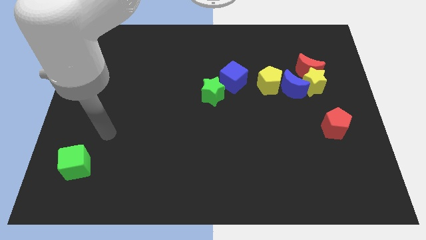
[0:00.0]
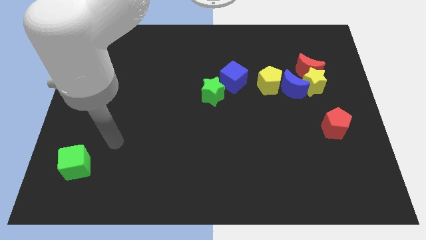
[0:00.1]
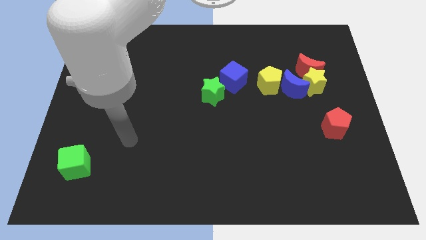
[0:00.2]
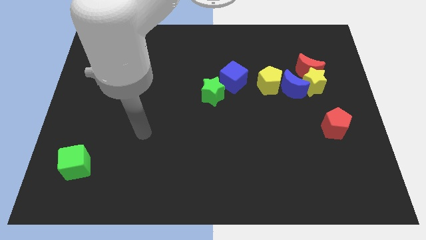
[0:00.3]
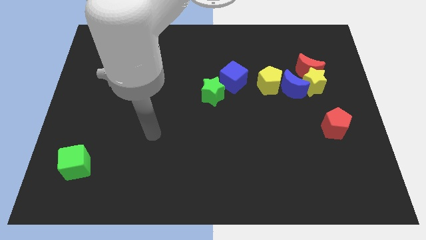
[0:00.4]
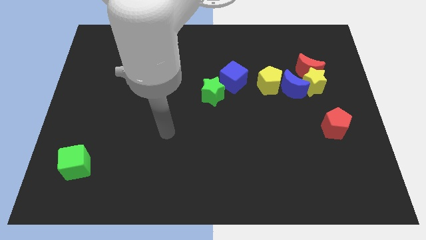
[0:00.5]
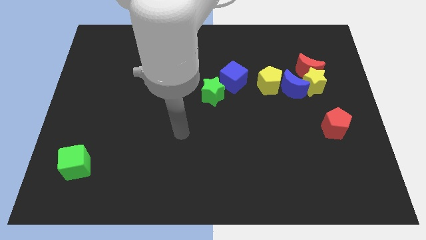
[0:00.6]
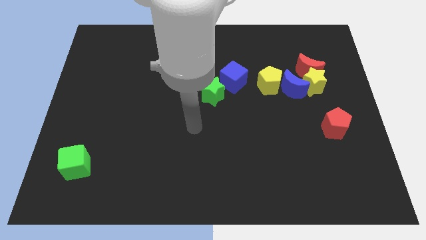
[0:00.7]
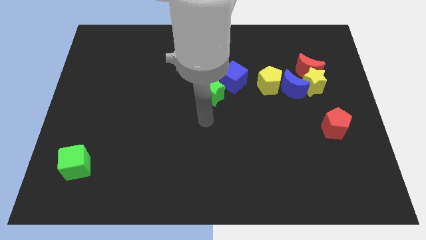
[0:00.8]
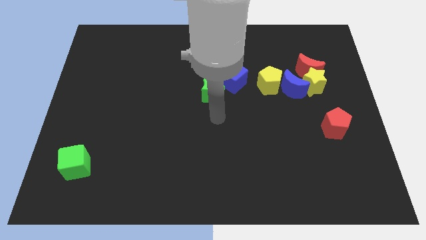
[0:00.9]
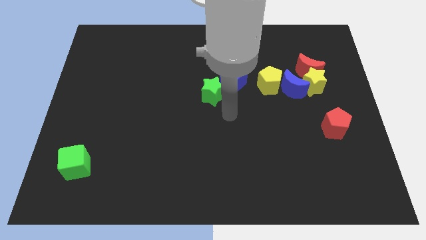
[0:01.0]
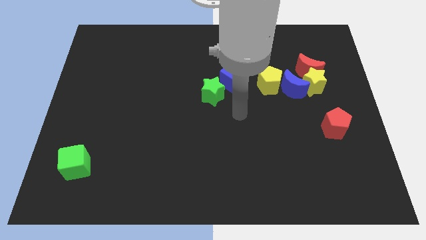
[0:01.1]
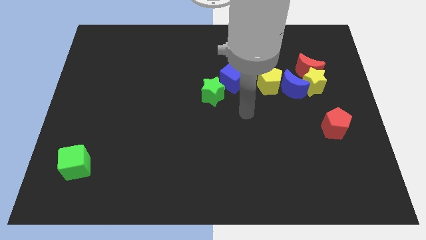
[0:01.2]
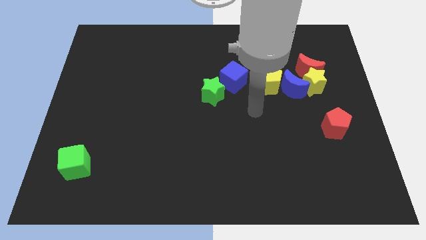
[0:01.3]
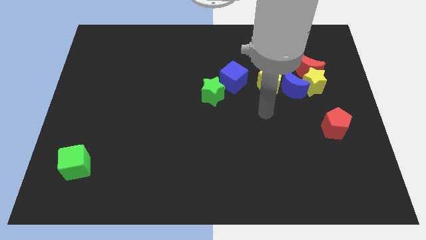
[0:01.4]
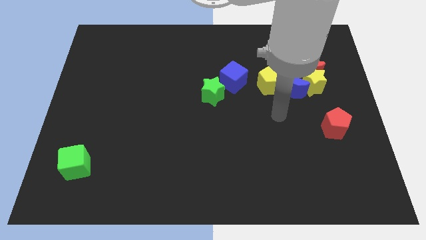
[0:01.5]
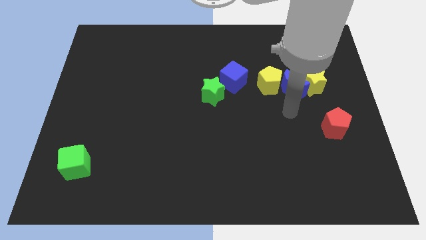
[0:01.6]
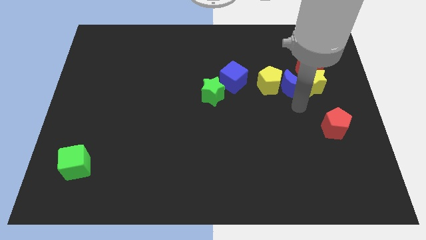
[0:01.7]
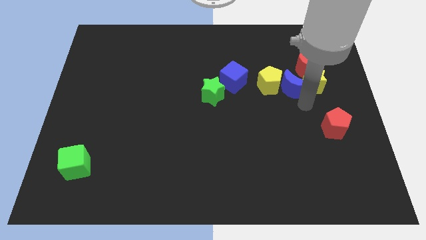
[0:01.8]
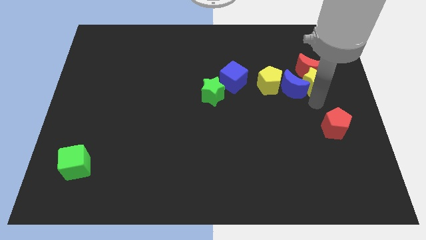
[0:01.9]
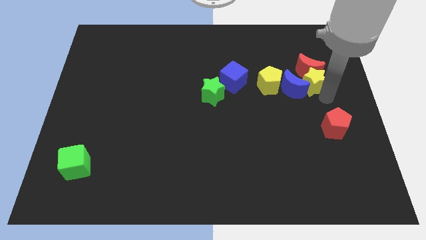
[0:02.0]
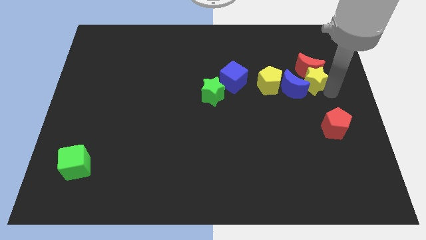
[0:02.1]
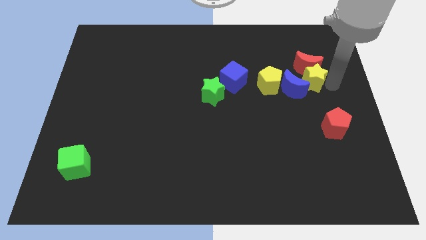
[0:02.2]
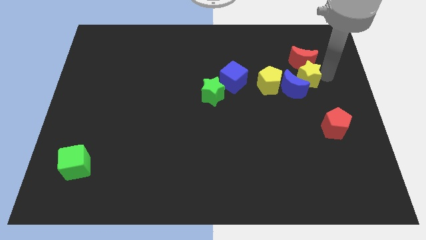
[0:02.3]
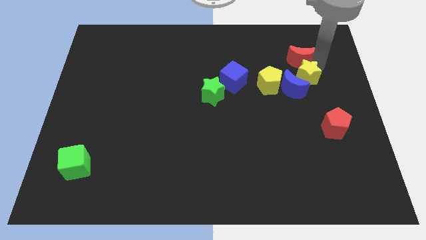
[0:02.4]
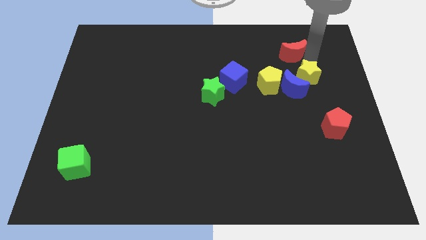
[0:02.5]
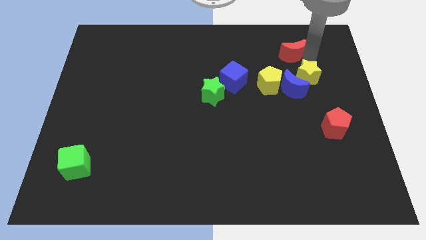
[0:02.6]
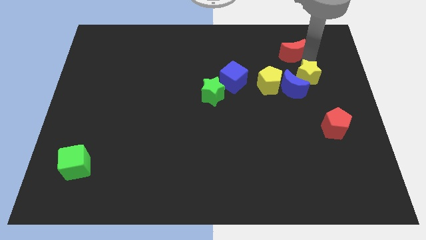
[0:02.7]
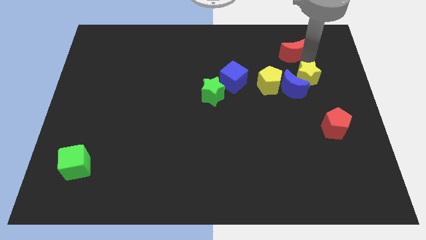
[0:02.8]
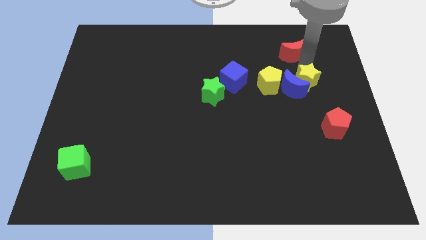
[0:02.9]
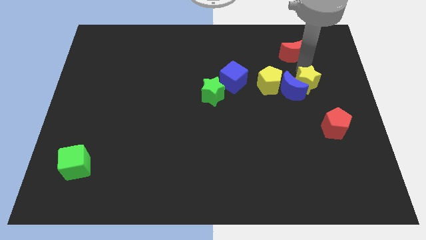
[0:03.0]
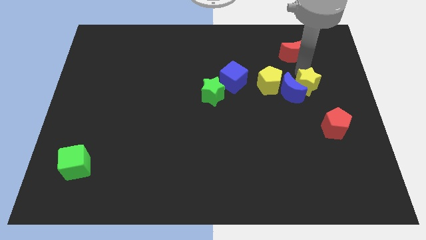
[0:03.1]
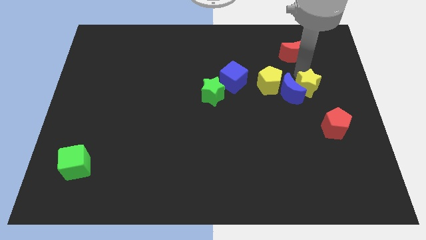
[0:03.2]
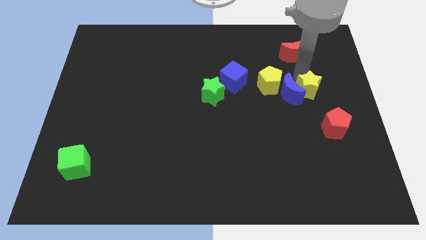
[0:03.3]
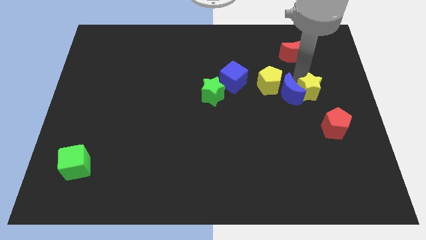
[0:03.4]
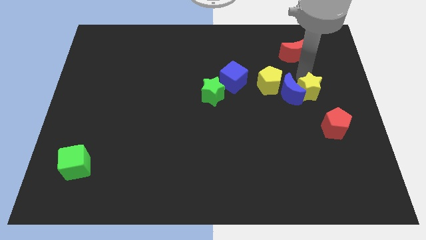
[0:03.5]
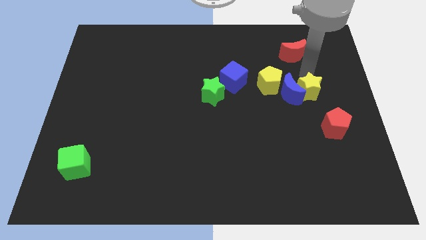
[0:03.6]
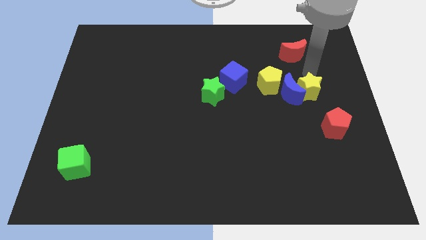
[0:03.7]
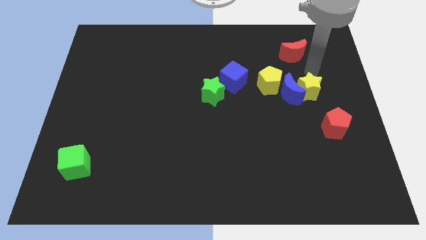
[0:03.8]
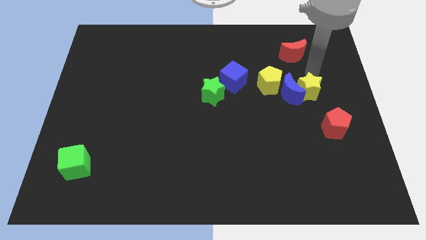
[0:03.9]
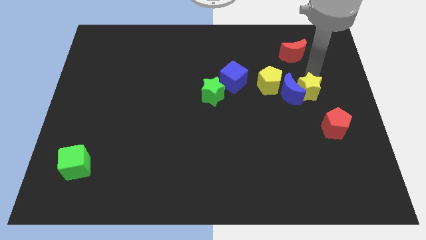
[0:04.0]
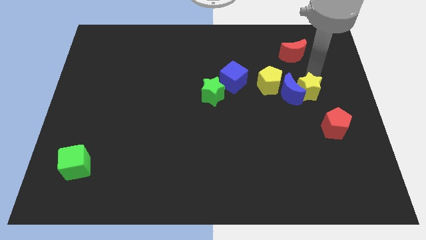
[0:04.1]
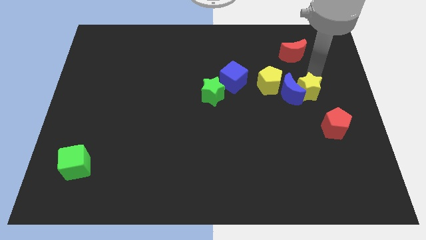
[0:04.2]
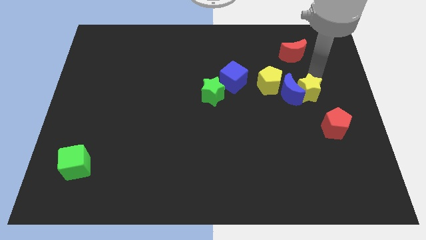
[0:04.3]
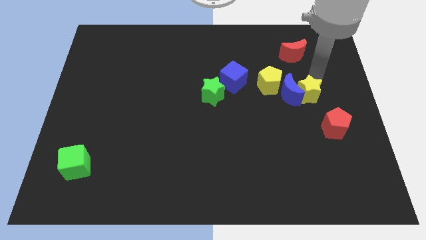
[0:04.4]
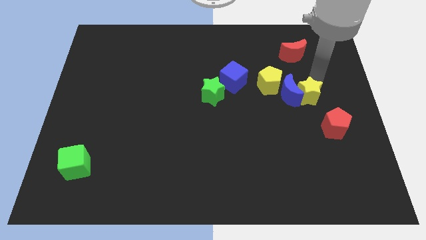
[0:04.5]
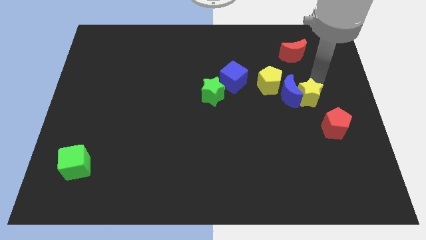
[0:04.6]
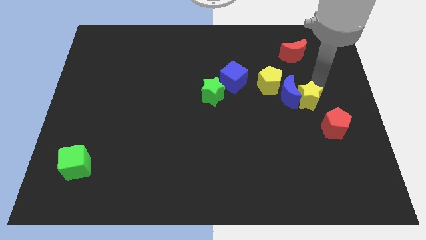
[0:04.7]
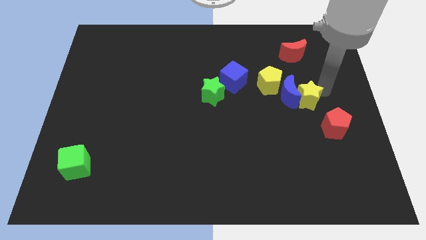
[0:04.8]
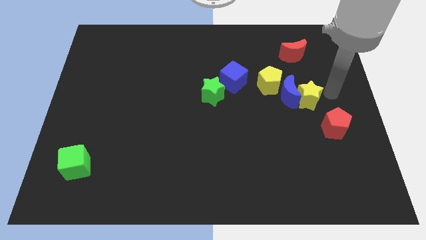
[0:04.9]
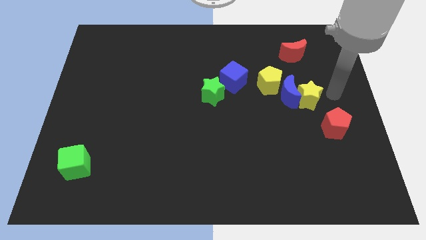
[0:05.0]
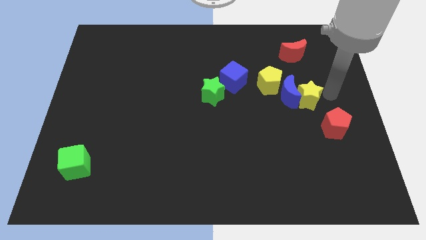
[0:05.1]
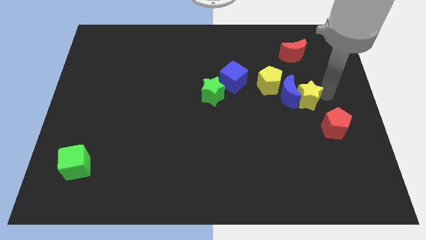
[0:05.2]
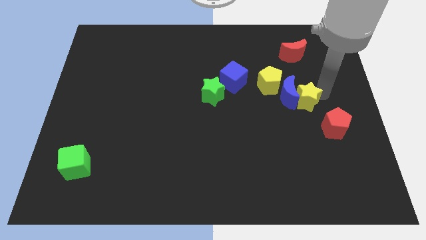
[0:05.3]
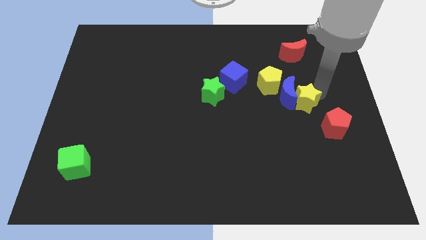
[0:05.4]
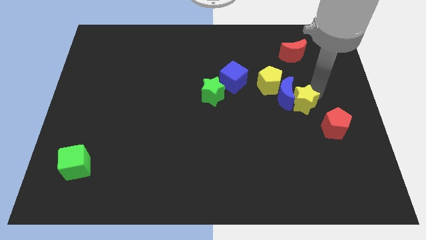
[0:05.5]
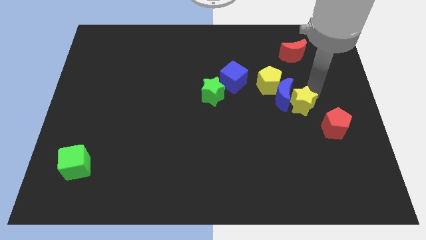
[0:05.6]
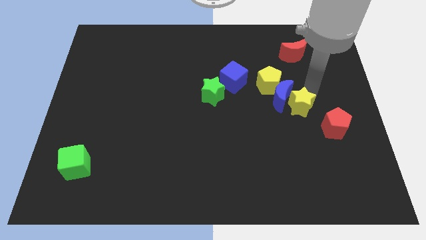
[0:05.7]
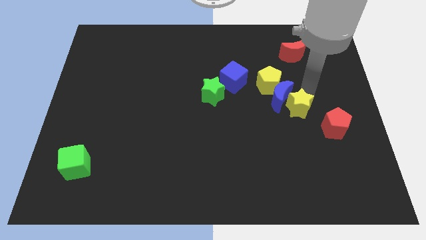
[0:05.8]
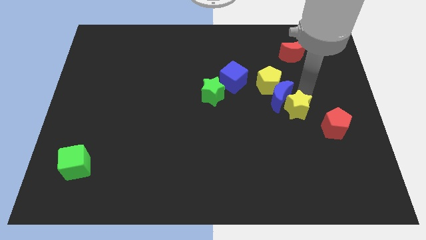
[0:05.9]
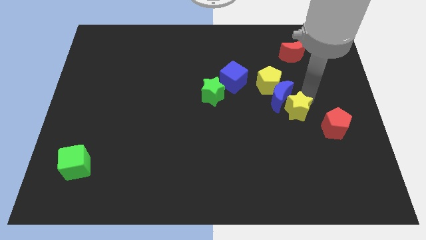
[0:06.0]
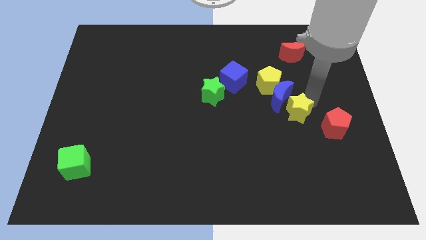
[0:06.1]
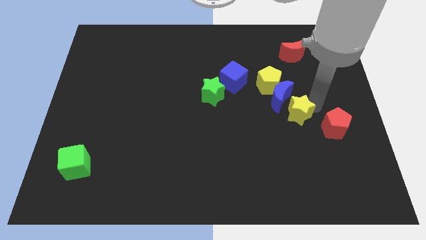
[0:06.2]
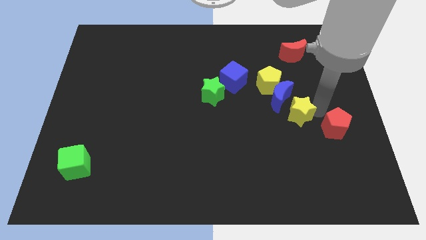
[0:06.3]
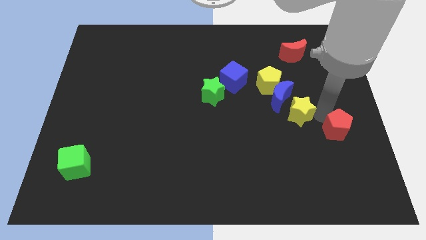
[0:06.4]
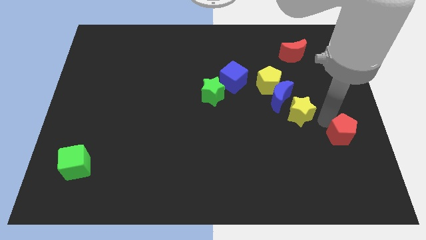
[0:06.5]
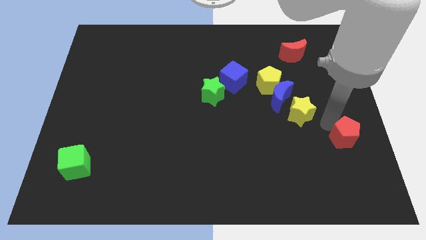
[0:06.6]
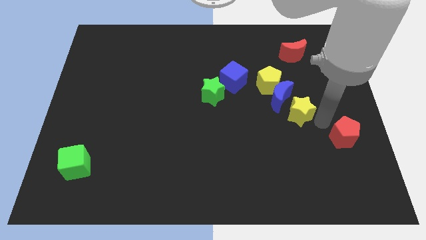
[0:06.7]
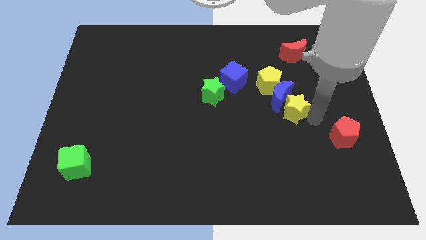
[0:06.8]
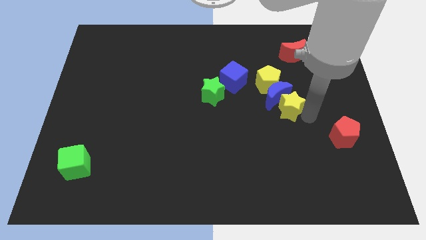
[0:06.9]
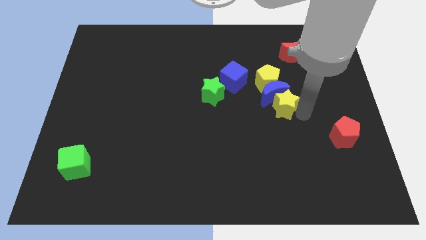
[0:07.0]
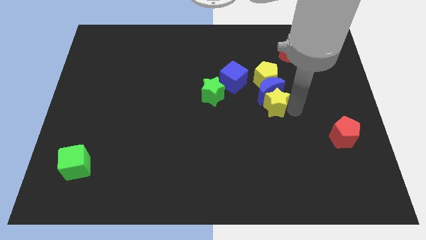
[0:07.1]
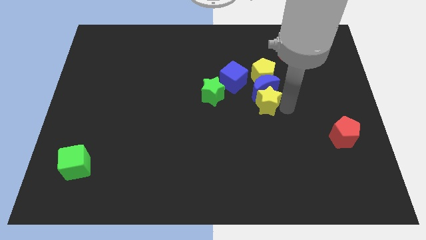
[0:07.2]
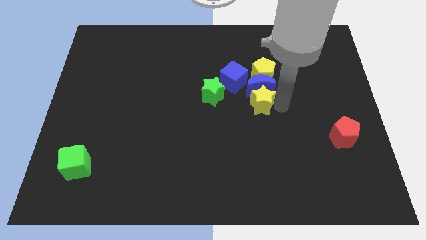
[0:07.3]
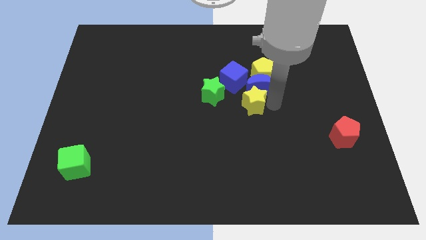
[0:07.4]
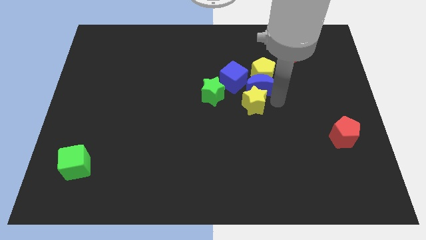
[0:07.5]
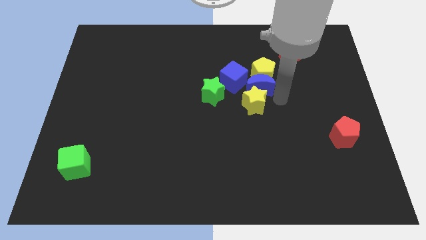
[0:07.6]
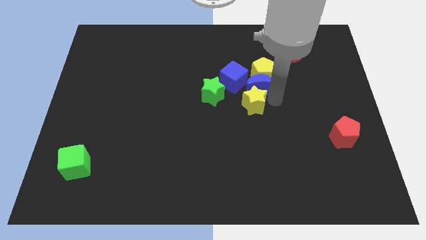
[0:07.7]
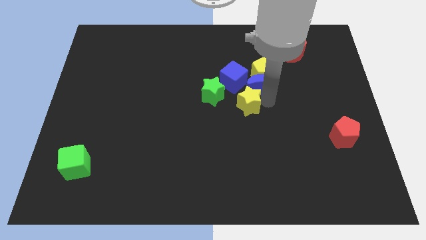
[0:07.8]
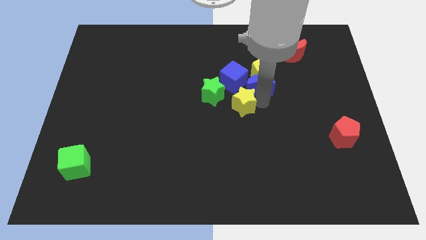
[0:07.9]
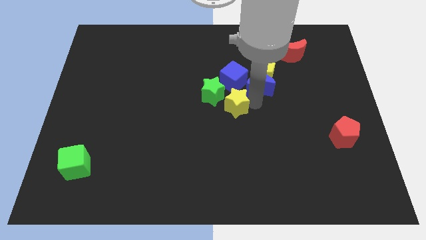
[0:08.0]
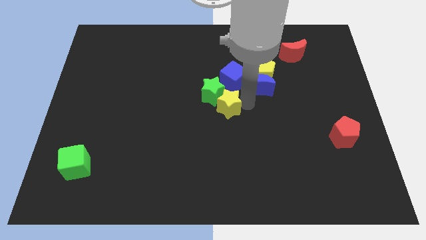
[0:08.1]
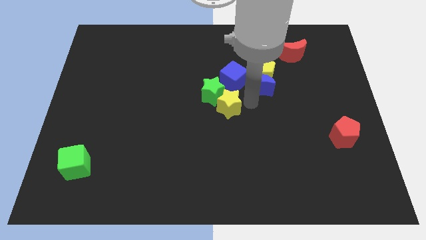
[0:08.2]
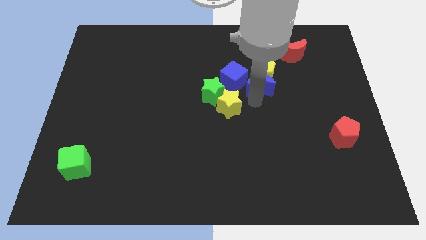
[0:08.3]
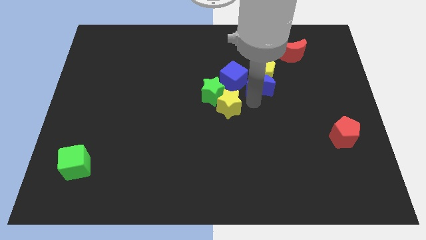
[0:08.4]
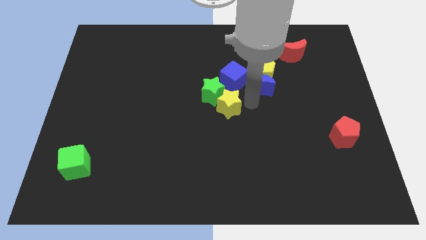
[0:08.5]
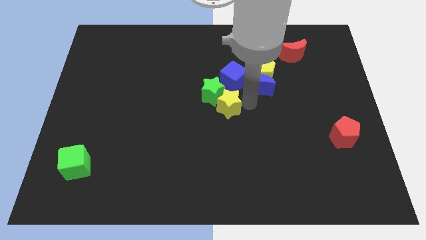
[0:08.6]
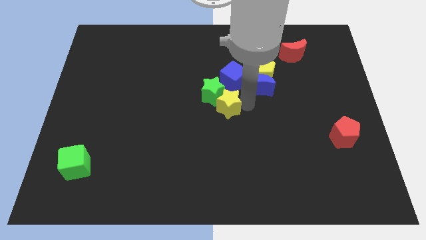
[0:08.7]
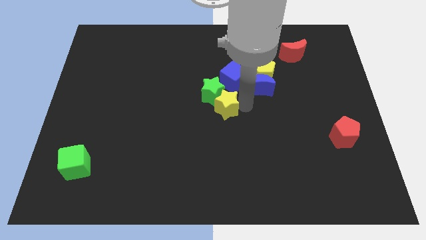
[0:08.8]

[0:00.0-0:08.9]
move the yellow star to the left
